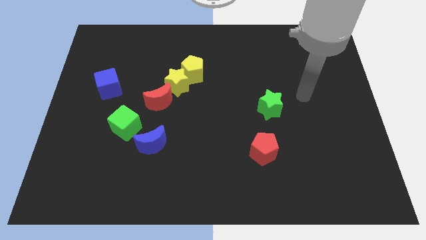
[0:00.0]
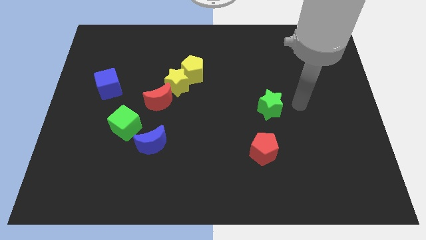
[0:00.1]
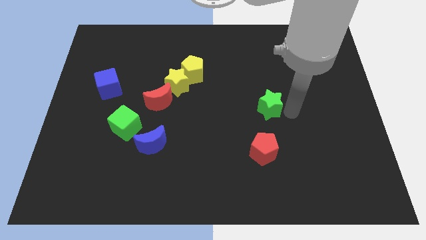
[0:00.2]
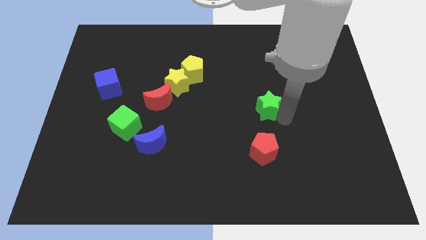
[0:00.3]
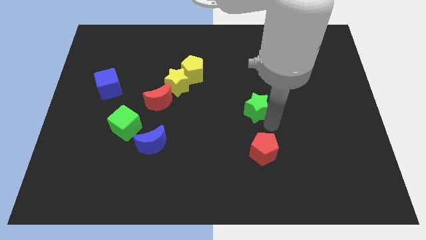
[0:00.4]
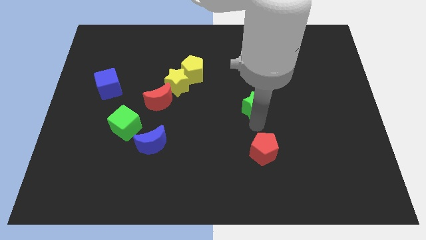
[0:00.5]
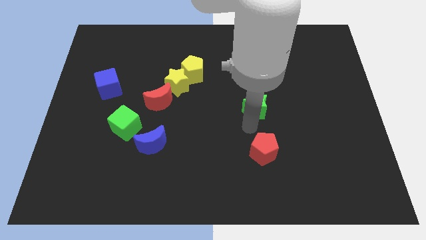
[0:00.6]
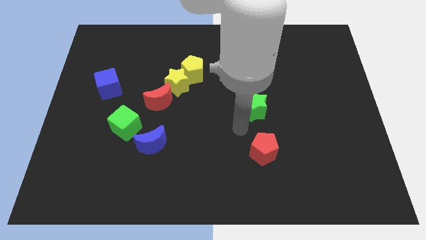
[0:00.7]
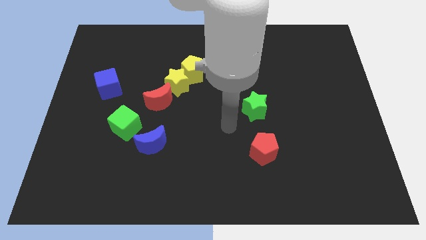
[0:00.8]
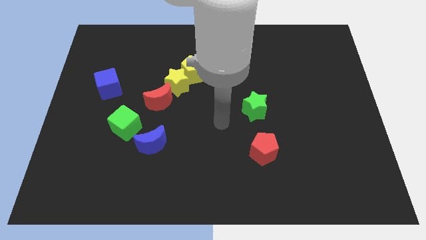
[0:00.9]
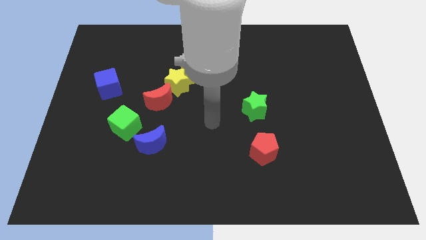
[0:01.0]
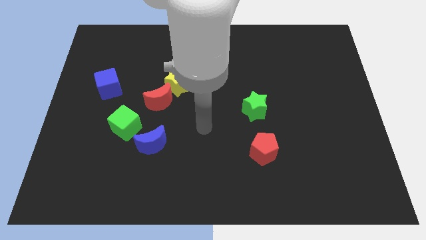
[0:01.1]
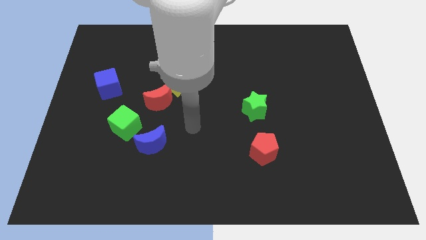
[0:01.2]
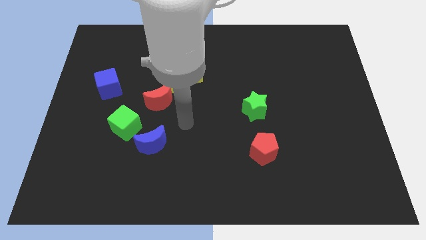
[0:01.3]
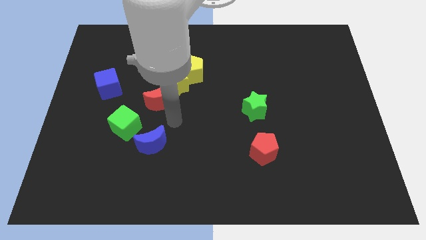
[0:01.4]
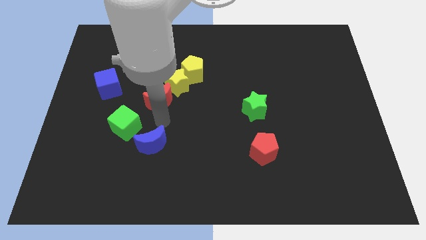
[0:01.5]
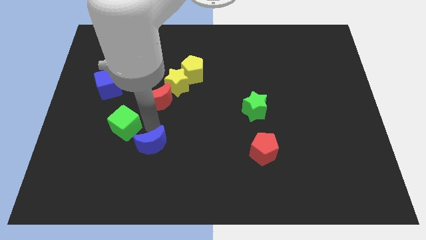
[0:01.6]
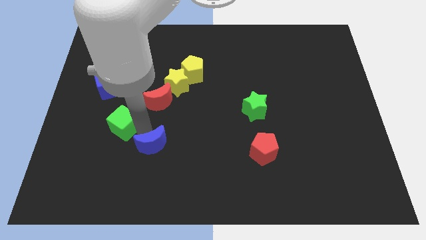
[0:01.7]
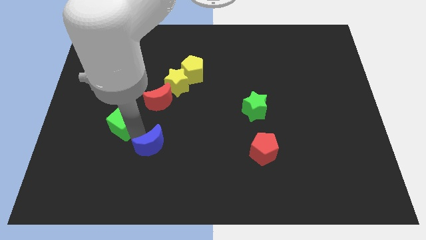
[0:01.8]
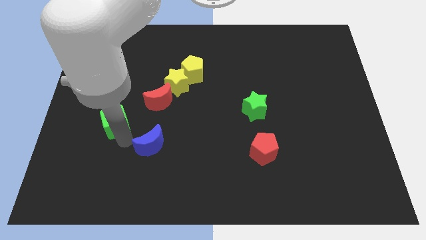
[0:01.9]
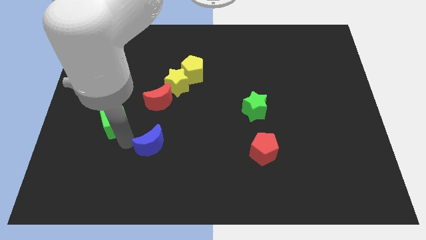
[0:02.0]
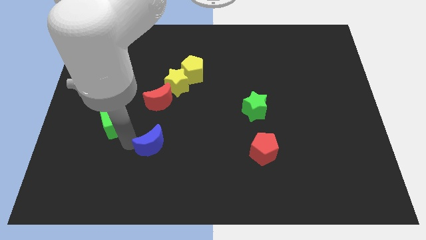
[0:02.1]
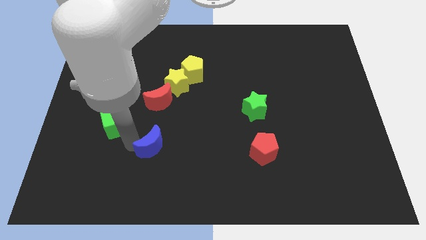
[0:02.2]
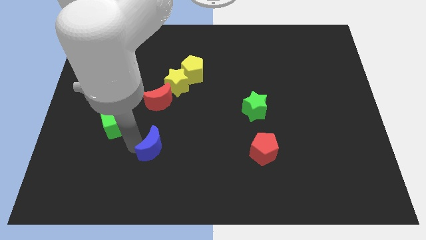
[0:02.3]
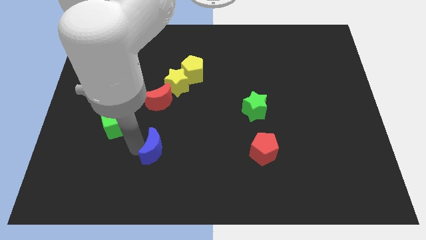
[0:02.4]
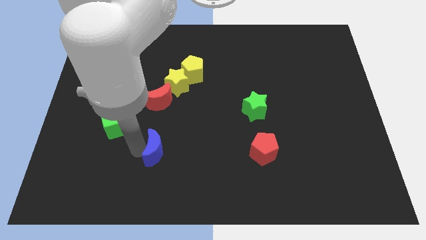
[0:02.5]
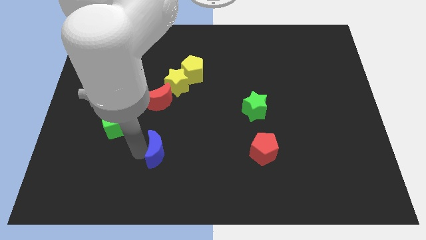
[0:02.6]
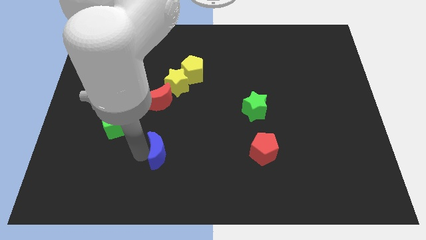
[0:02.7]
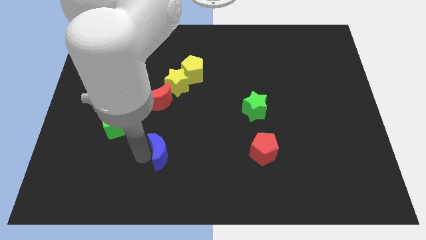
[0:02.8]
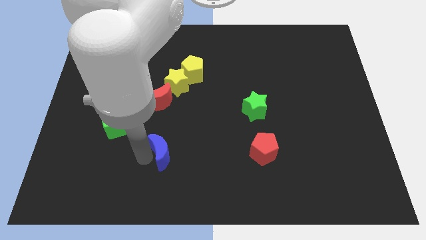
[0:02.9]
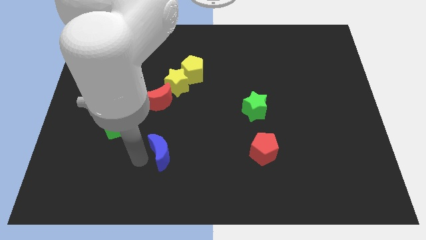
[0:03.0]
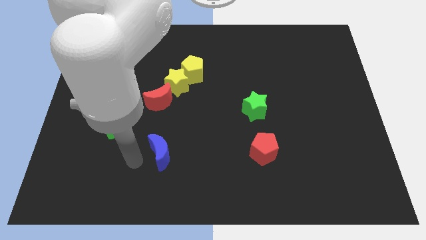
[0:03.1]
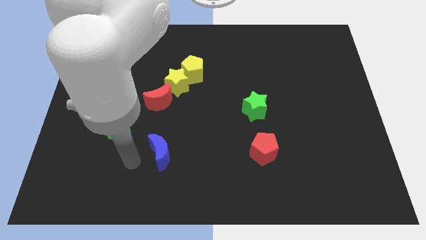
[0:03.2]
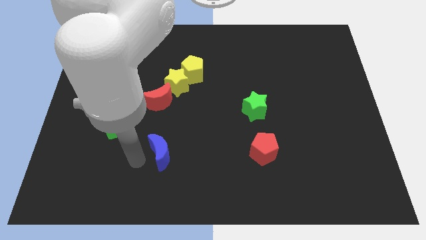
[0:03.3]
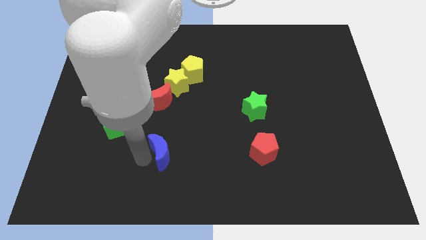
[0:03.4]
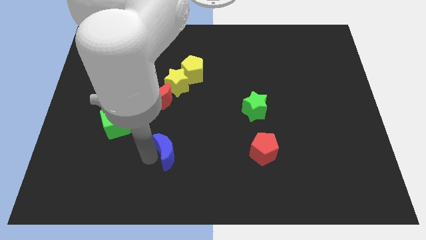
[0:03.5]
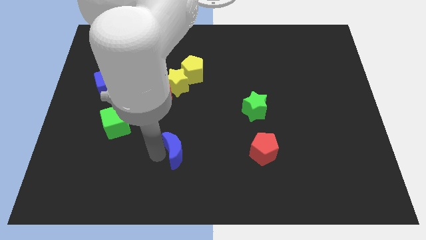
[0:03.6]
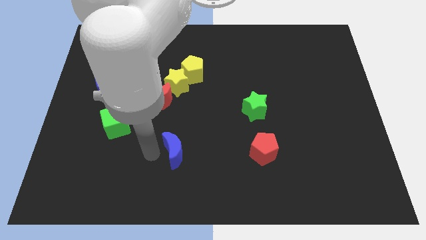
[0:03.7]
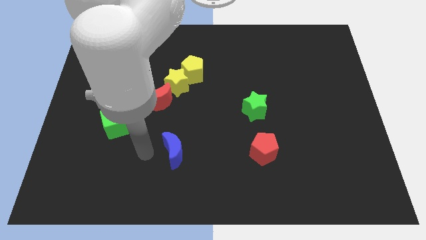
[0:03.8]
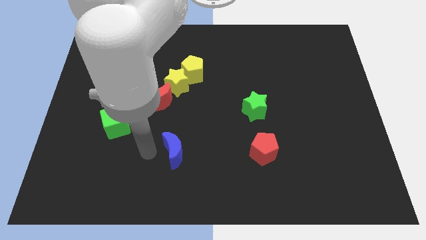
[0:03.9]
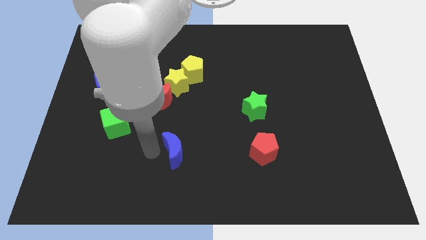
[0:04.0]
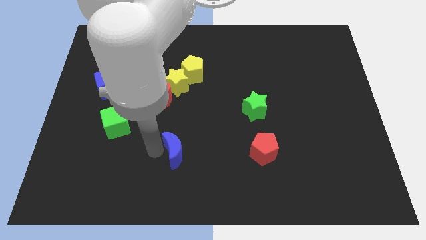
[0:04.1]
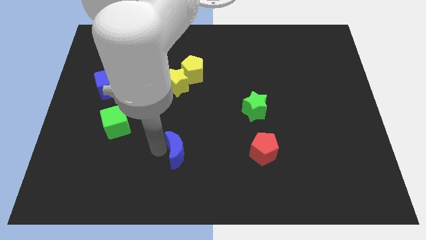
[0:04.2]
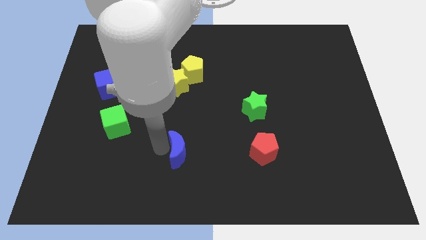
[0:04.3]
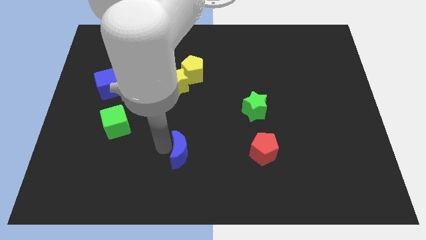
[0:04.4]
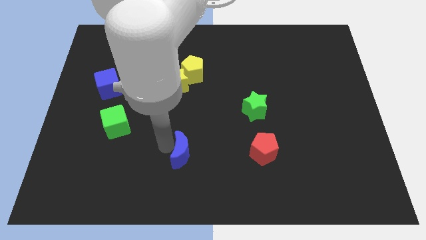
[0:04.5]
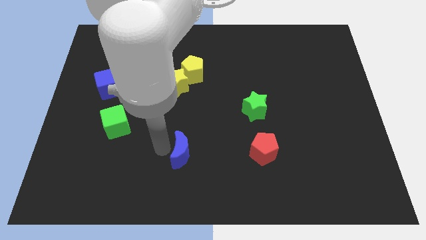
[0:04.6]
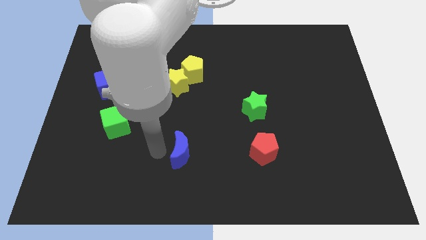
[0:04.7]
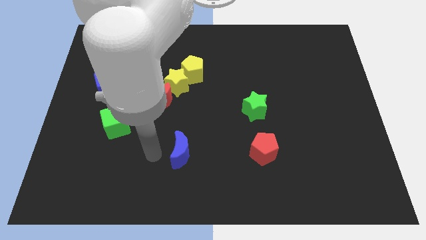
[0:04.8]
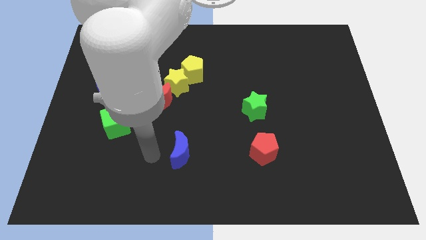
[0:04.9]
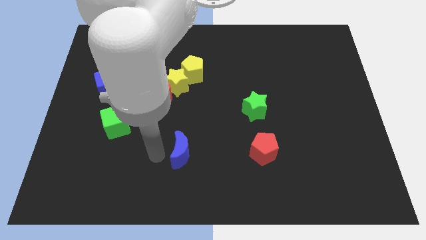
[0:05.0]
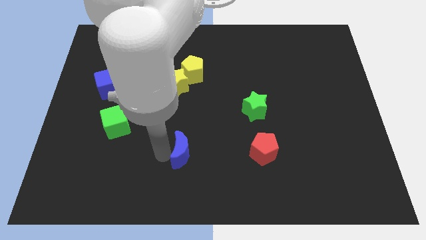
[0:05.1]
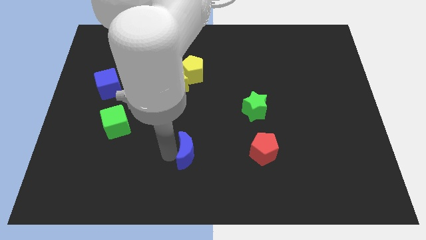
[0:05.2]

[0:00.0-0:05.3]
slightly move the blue moon to the right

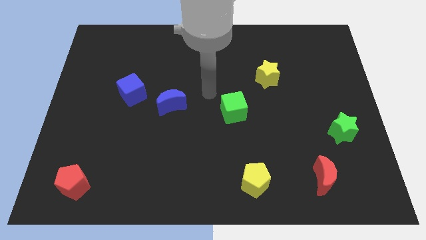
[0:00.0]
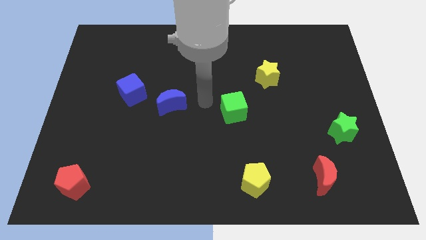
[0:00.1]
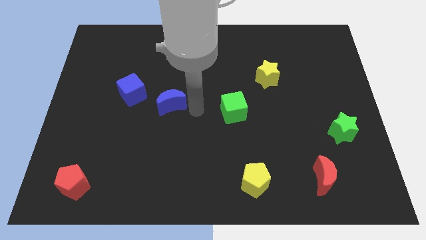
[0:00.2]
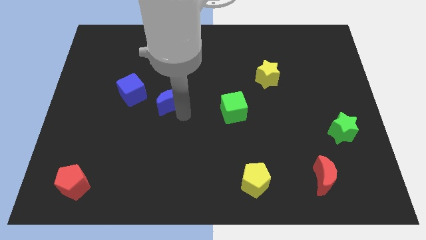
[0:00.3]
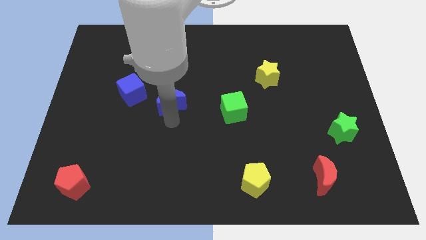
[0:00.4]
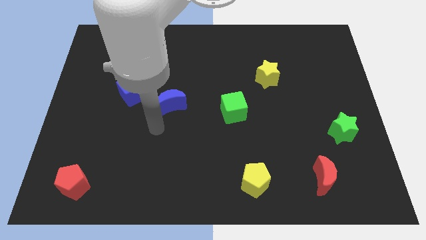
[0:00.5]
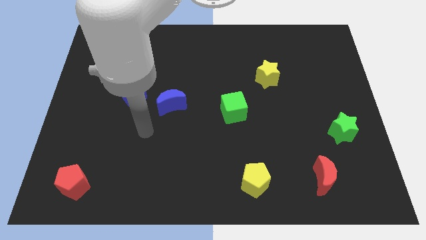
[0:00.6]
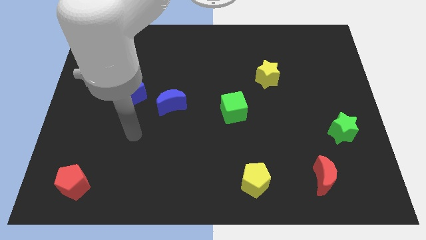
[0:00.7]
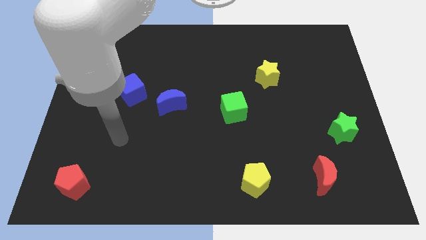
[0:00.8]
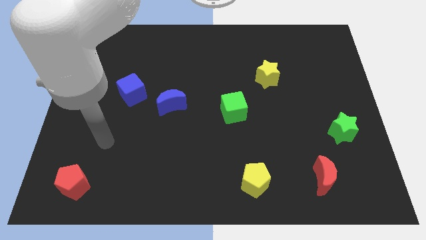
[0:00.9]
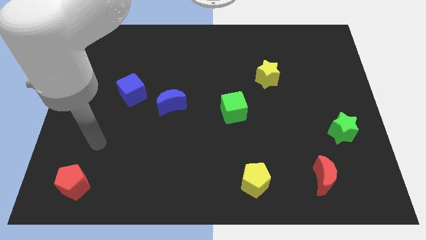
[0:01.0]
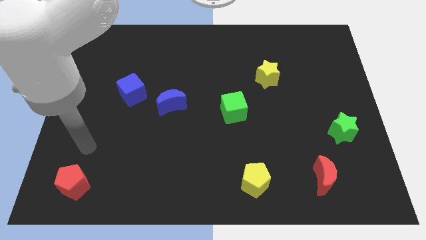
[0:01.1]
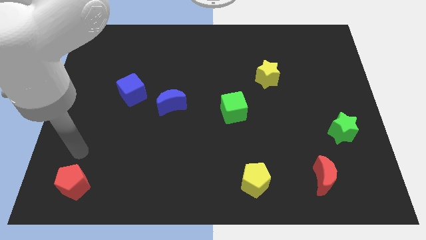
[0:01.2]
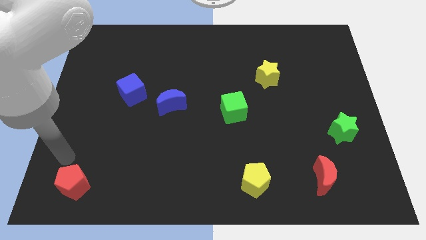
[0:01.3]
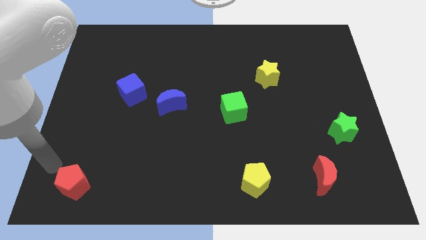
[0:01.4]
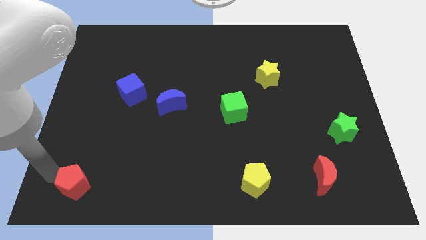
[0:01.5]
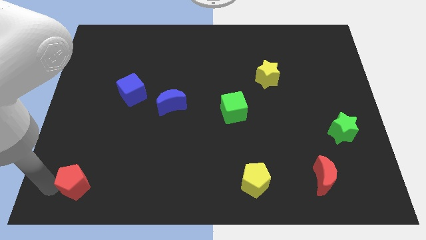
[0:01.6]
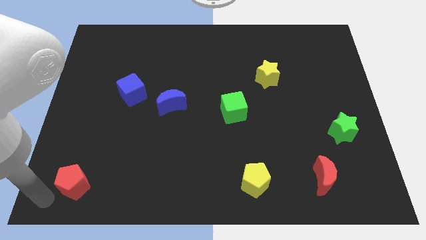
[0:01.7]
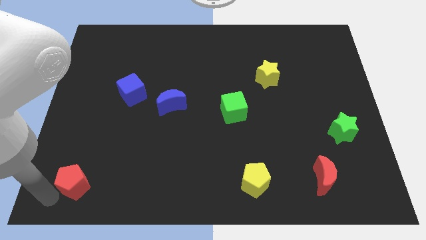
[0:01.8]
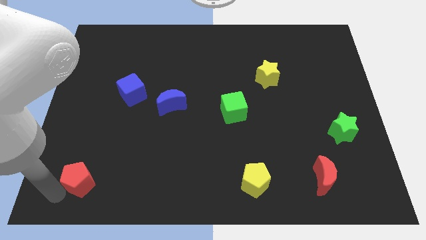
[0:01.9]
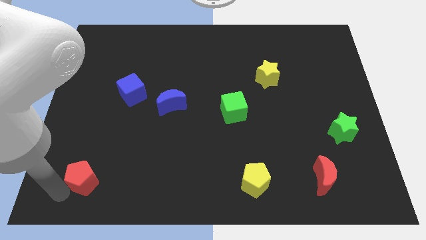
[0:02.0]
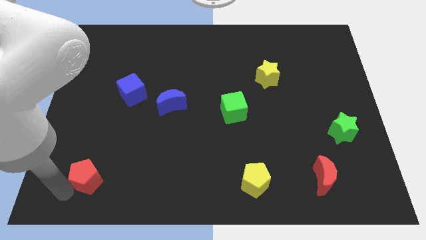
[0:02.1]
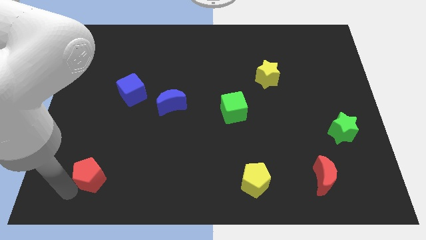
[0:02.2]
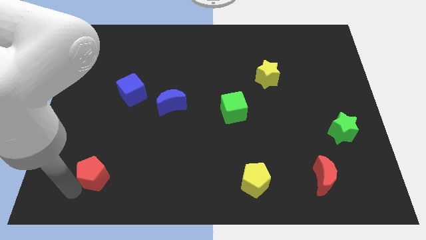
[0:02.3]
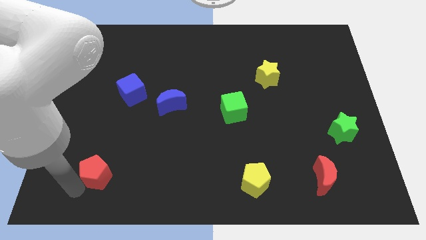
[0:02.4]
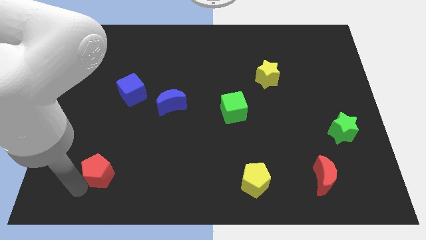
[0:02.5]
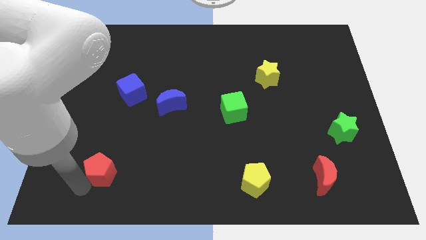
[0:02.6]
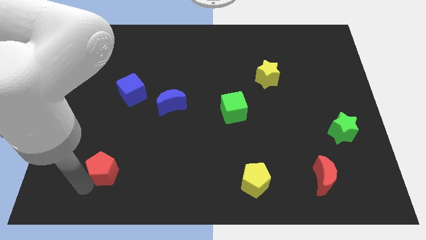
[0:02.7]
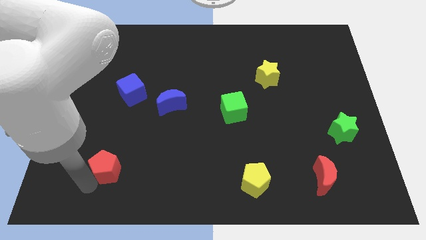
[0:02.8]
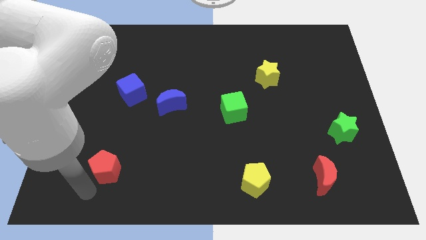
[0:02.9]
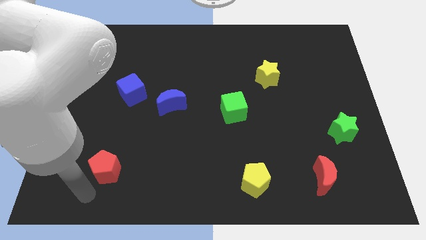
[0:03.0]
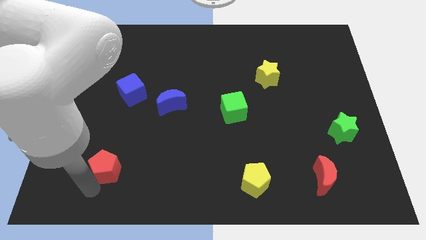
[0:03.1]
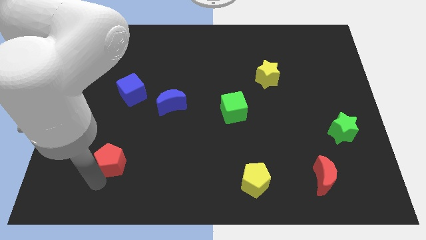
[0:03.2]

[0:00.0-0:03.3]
slightly move the red pentagon up and right diagonally
